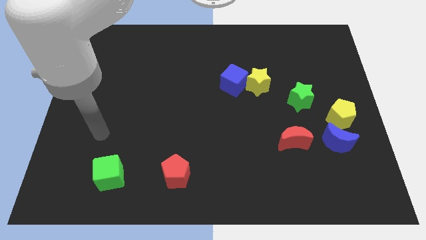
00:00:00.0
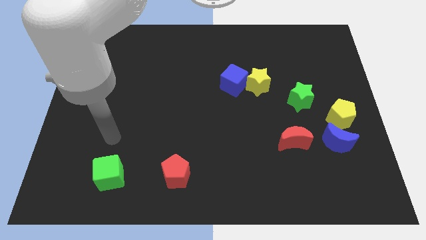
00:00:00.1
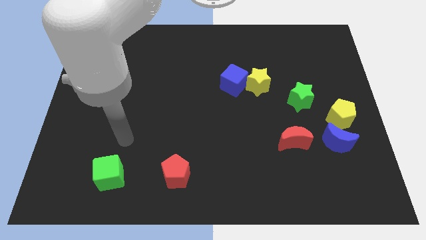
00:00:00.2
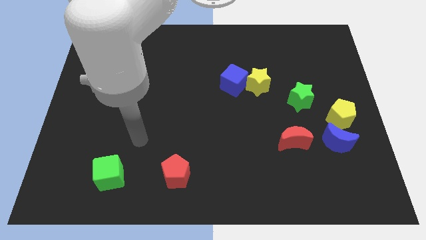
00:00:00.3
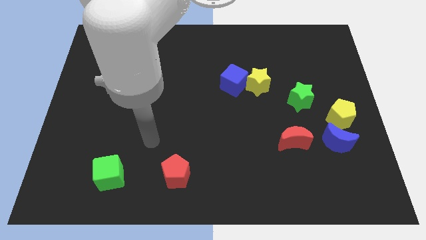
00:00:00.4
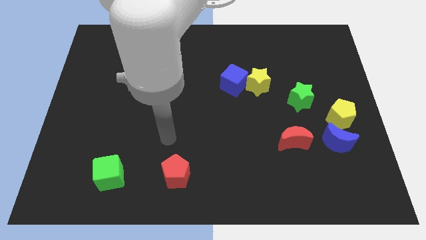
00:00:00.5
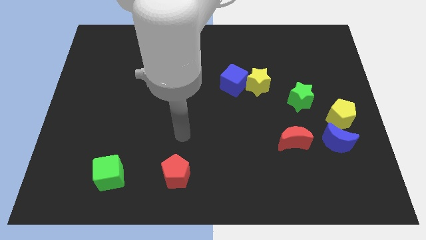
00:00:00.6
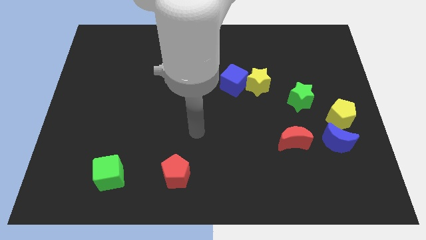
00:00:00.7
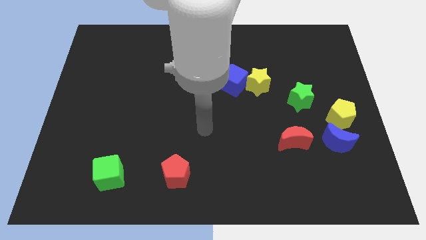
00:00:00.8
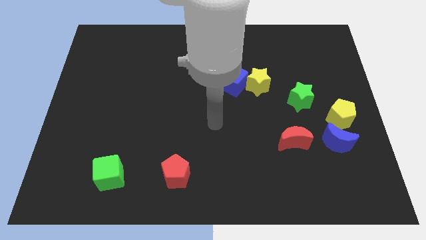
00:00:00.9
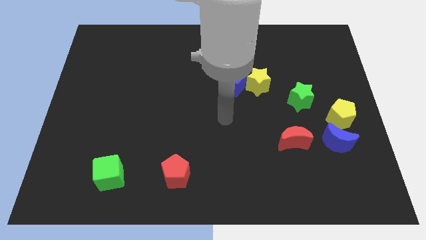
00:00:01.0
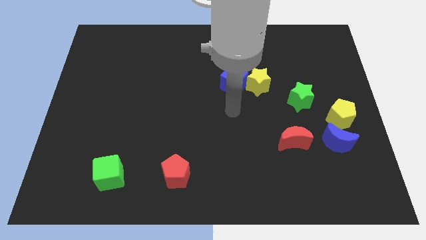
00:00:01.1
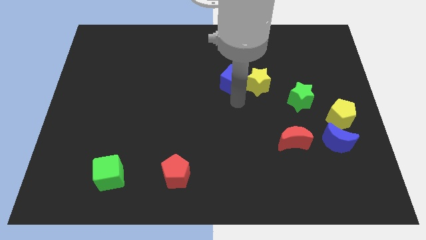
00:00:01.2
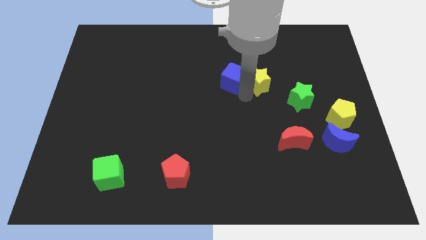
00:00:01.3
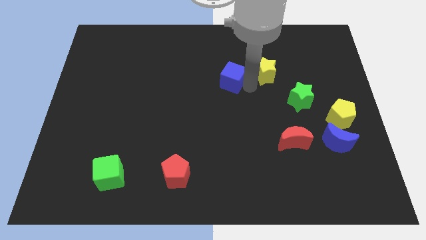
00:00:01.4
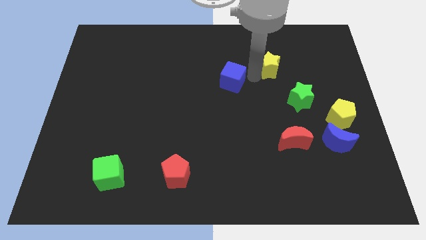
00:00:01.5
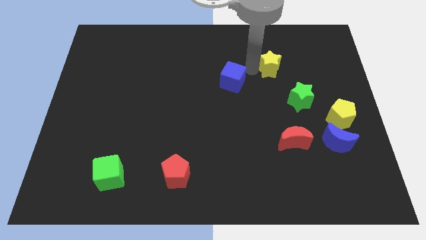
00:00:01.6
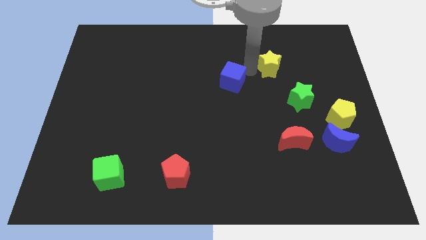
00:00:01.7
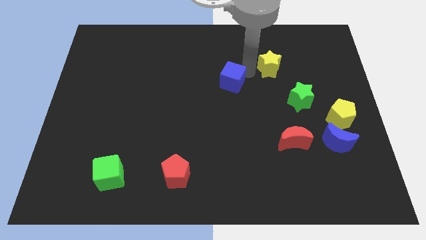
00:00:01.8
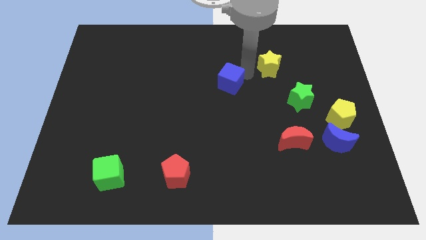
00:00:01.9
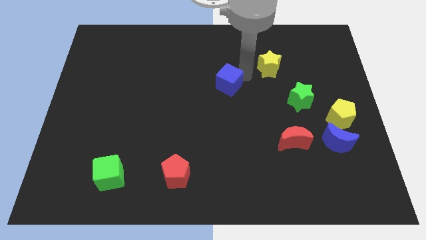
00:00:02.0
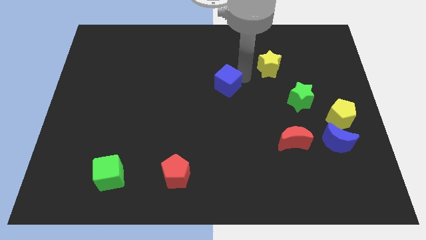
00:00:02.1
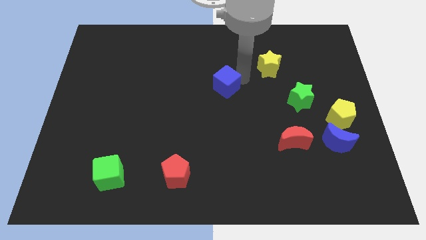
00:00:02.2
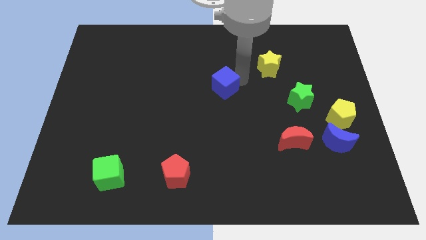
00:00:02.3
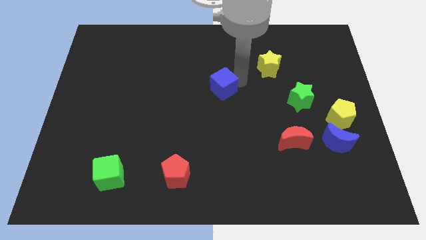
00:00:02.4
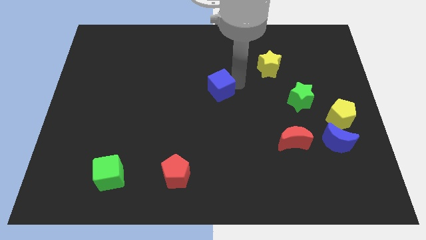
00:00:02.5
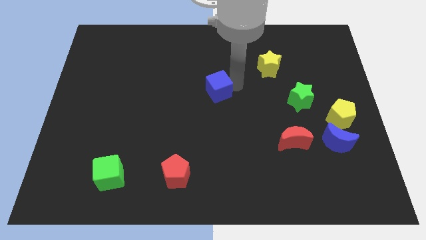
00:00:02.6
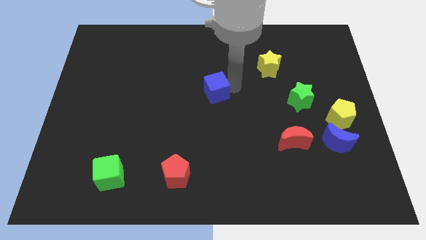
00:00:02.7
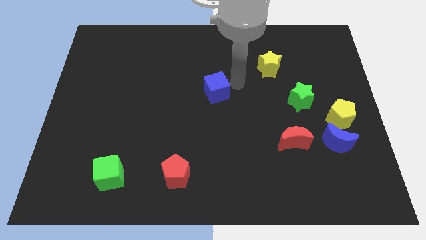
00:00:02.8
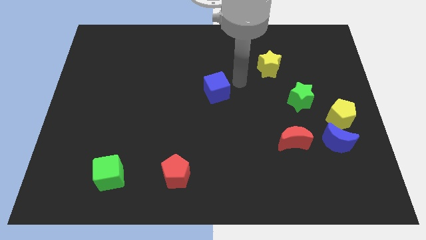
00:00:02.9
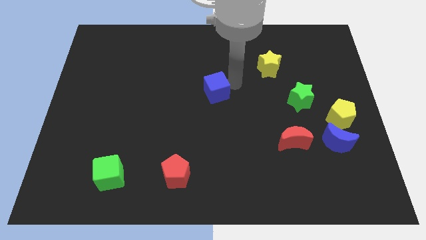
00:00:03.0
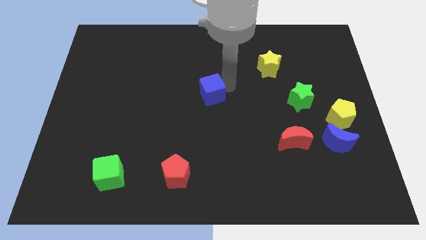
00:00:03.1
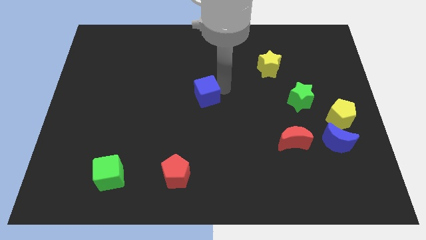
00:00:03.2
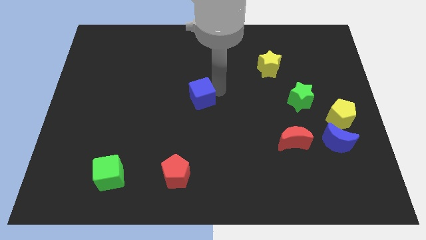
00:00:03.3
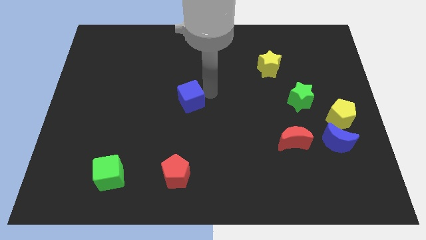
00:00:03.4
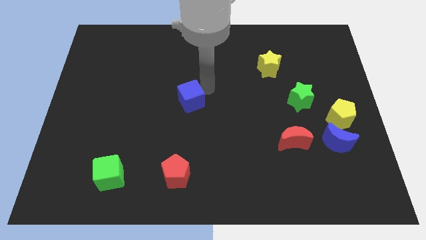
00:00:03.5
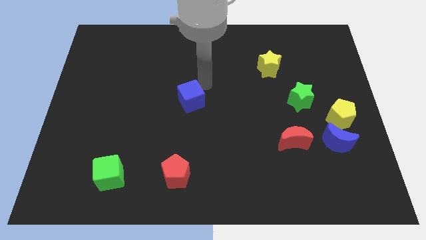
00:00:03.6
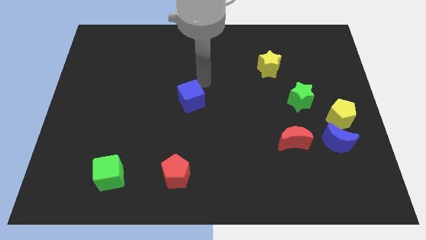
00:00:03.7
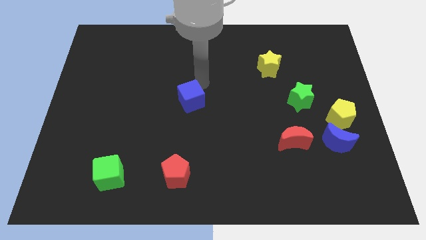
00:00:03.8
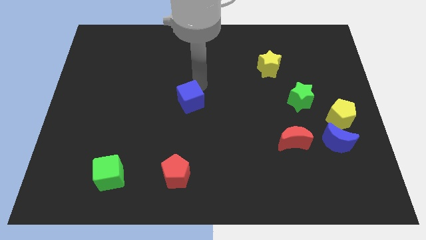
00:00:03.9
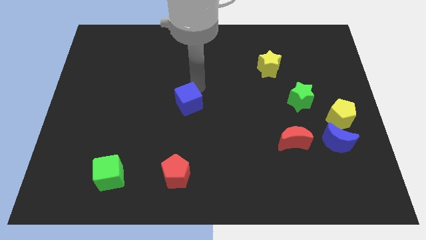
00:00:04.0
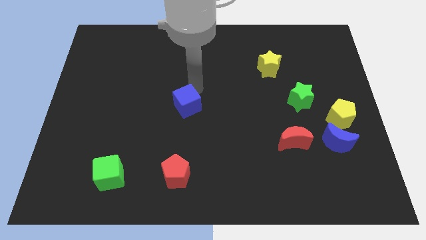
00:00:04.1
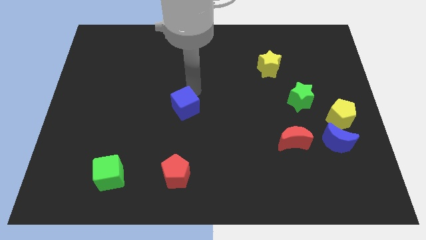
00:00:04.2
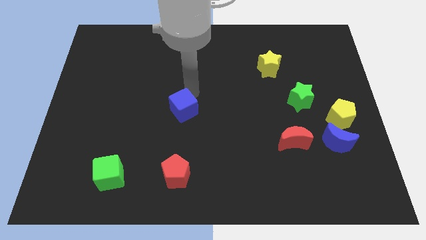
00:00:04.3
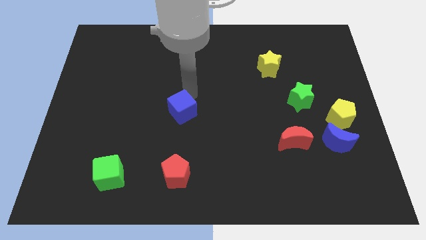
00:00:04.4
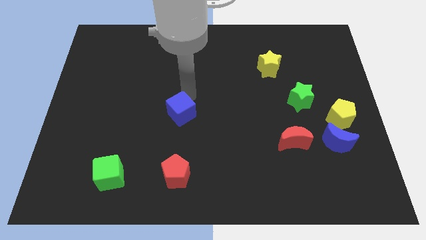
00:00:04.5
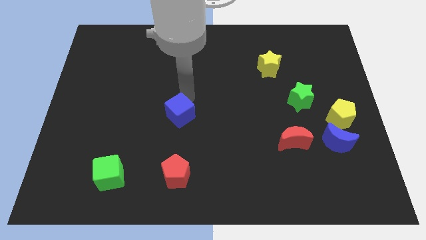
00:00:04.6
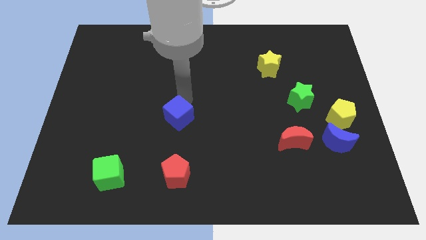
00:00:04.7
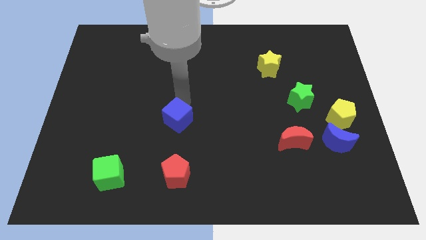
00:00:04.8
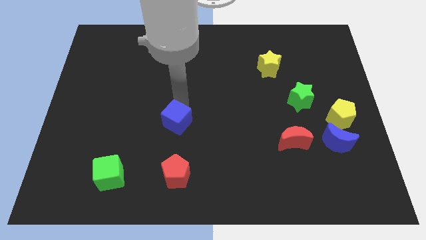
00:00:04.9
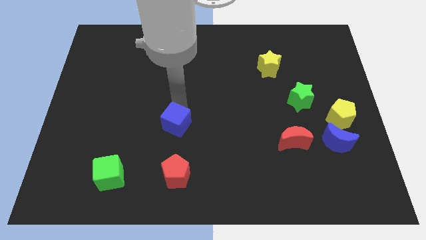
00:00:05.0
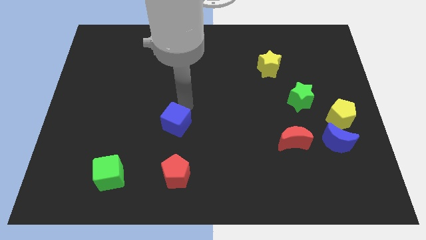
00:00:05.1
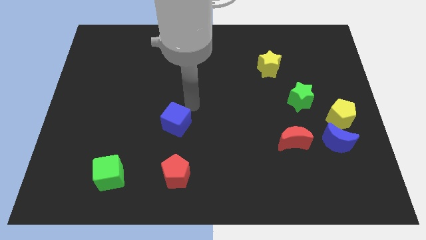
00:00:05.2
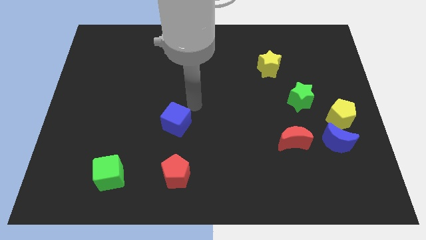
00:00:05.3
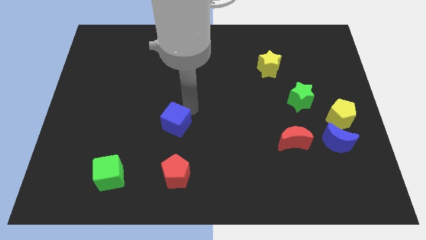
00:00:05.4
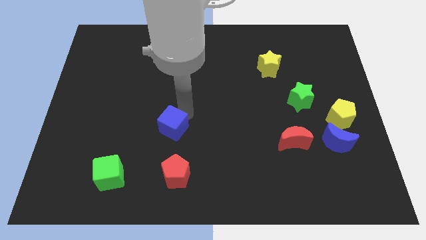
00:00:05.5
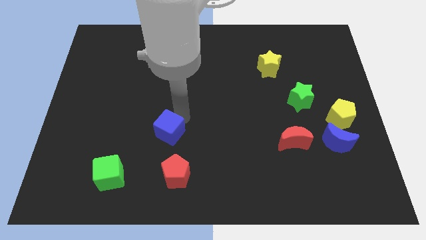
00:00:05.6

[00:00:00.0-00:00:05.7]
push the blue cube downwards and to the left diagonally

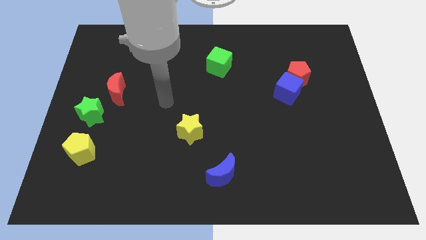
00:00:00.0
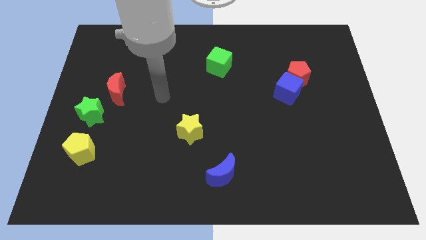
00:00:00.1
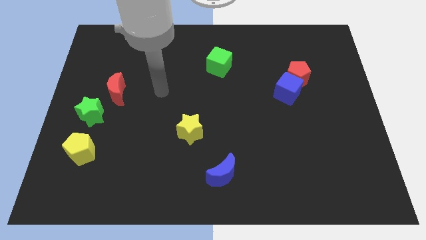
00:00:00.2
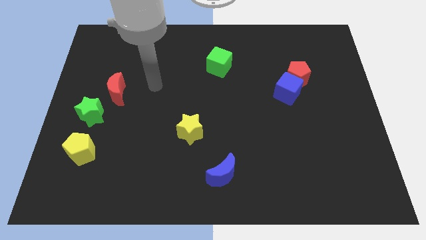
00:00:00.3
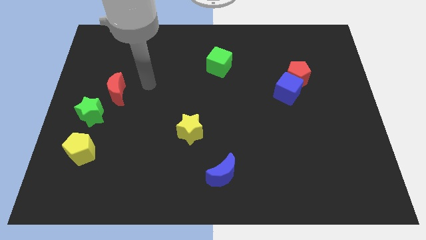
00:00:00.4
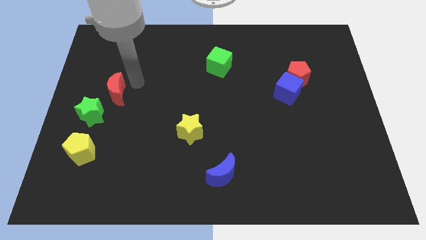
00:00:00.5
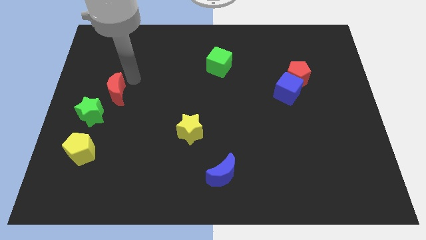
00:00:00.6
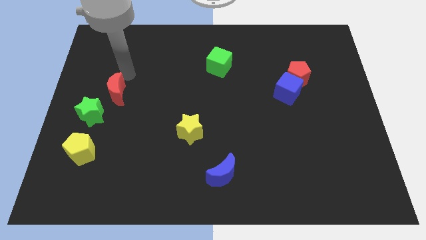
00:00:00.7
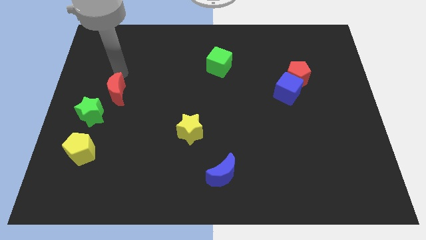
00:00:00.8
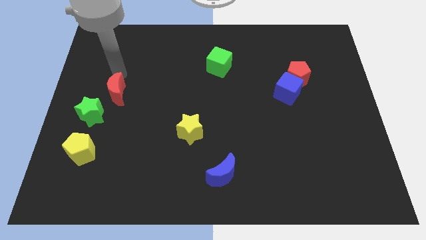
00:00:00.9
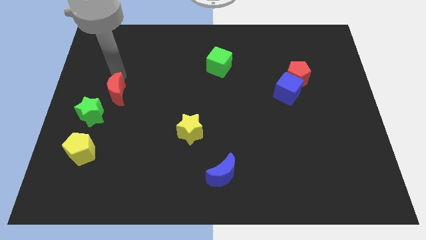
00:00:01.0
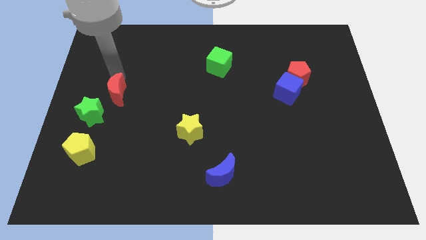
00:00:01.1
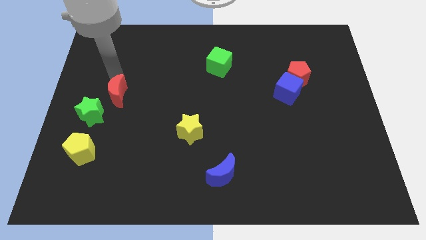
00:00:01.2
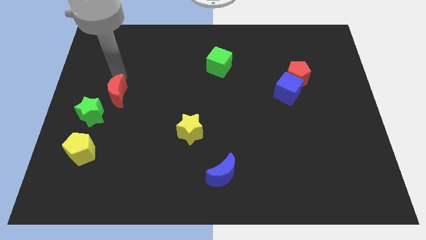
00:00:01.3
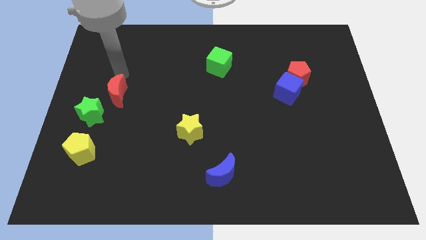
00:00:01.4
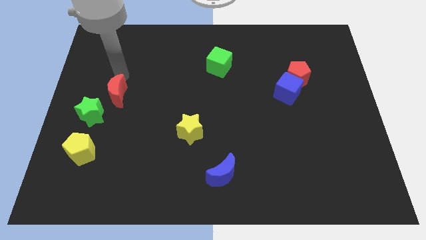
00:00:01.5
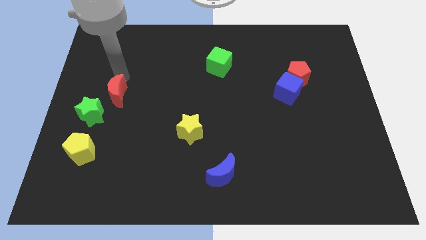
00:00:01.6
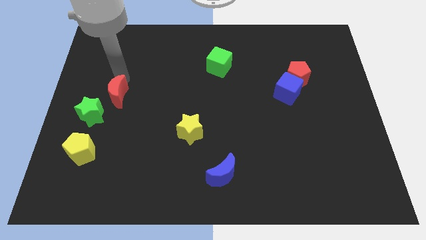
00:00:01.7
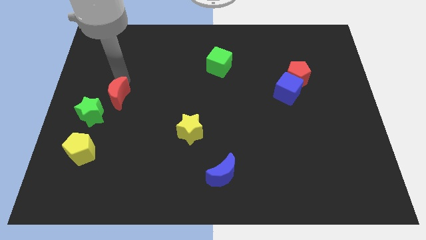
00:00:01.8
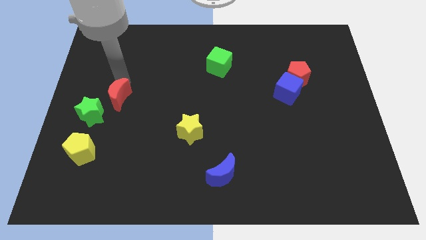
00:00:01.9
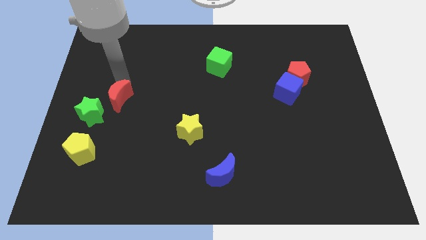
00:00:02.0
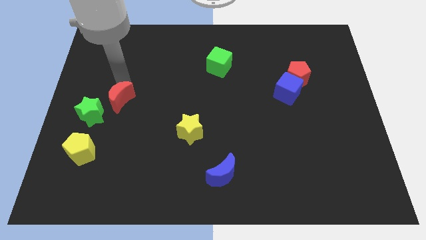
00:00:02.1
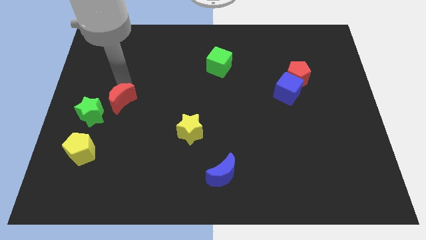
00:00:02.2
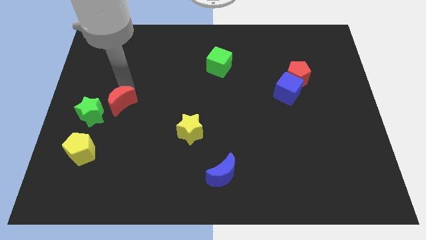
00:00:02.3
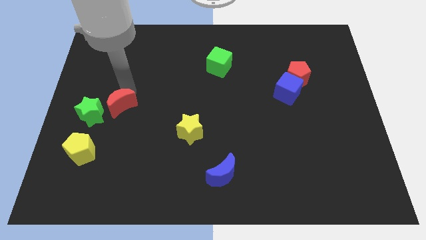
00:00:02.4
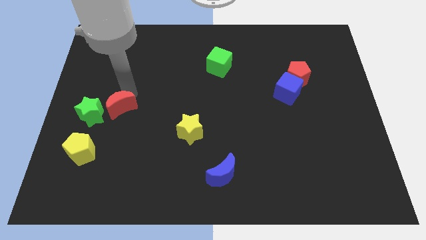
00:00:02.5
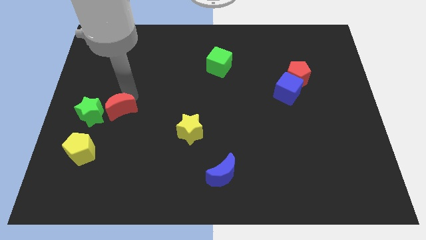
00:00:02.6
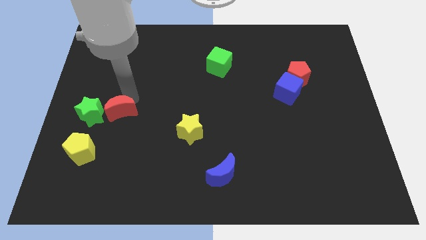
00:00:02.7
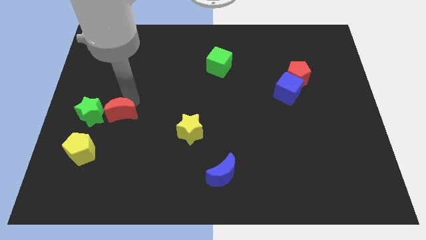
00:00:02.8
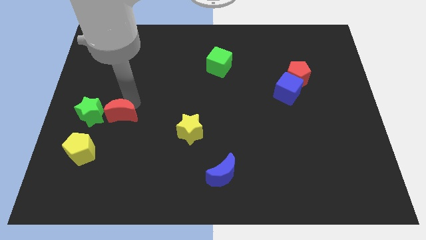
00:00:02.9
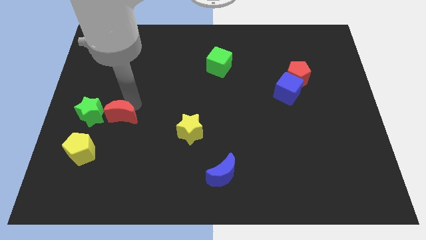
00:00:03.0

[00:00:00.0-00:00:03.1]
push the red moon down a bit
